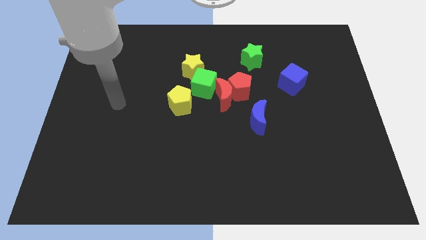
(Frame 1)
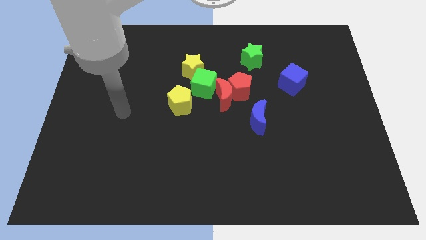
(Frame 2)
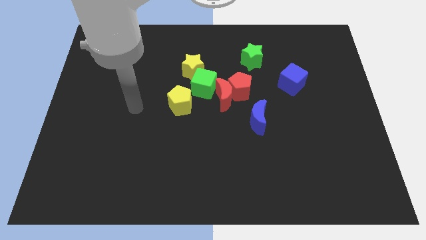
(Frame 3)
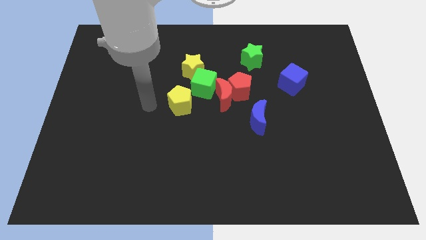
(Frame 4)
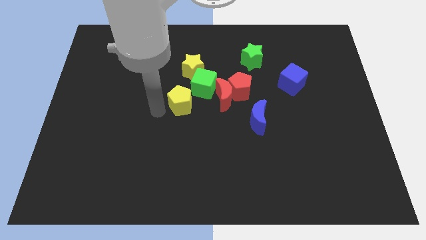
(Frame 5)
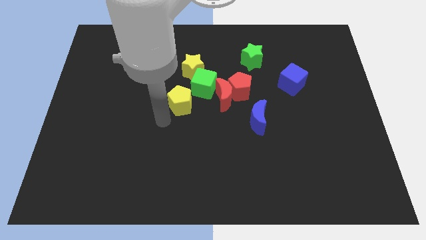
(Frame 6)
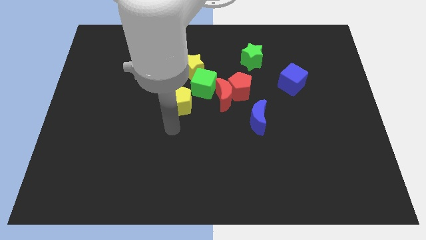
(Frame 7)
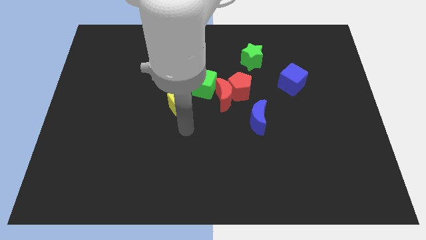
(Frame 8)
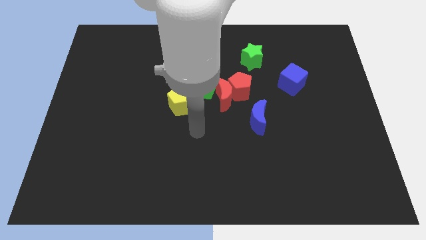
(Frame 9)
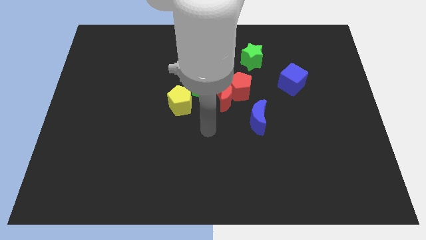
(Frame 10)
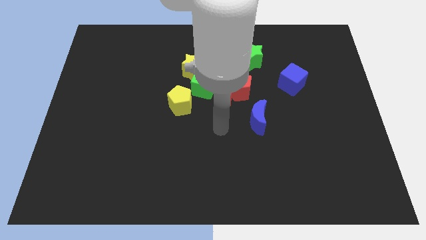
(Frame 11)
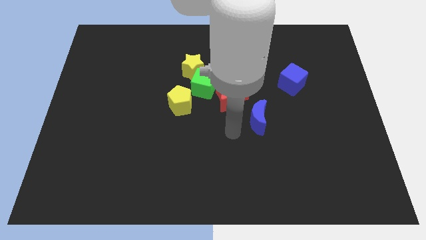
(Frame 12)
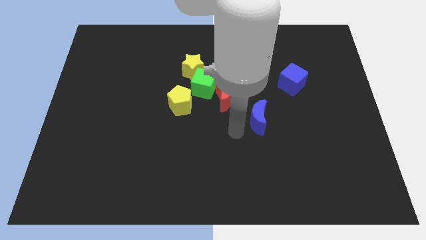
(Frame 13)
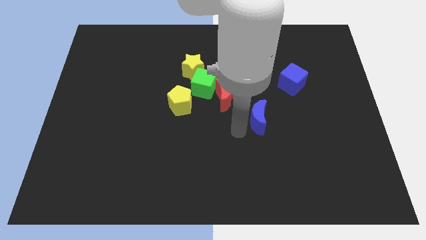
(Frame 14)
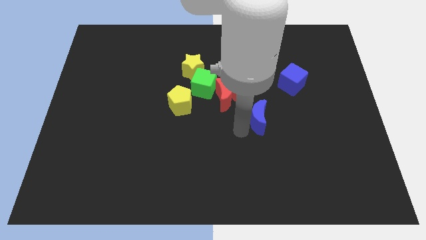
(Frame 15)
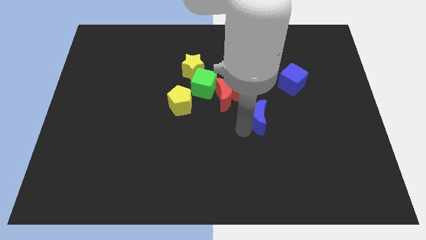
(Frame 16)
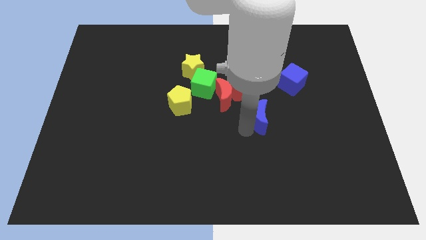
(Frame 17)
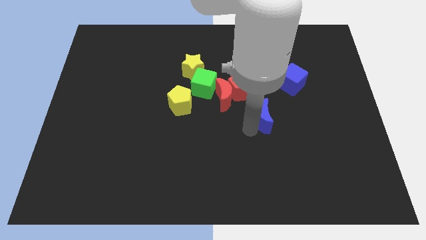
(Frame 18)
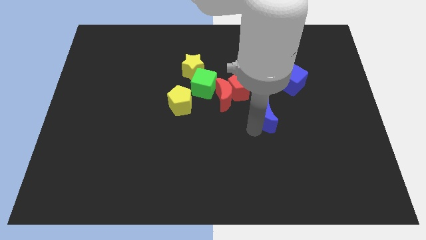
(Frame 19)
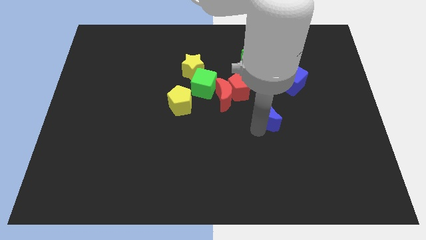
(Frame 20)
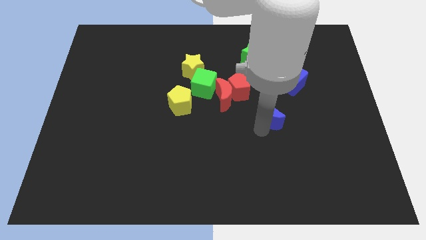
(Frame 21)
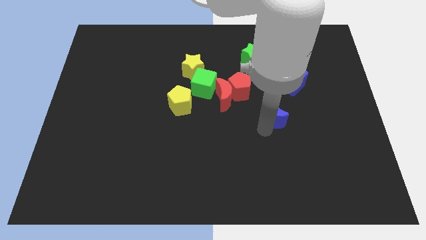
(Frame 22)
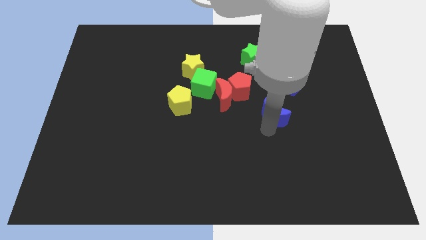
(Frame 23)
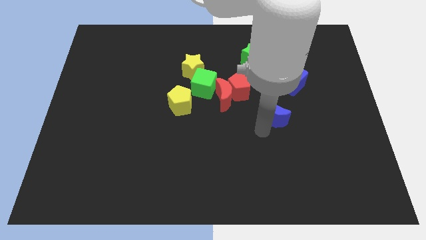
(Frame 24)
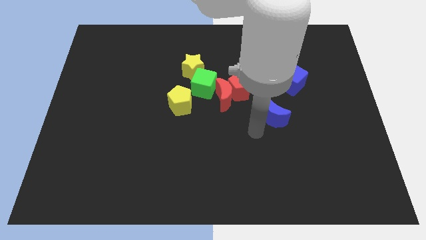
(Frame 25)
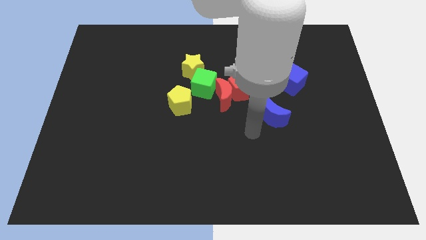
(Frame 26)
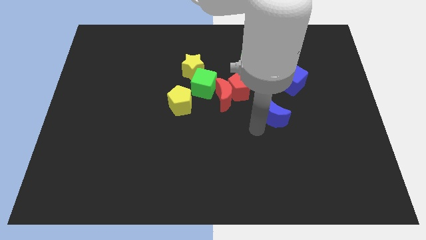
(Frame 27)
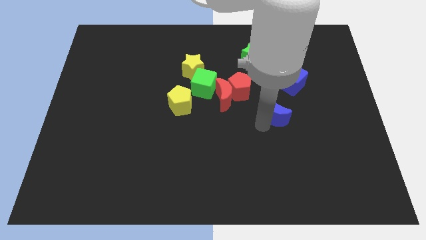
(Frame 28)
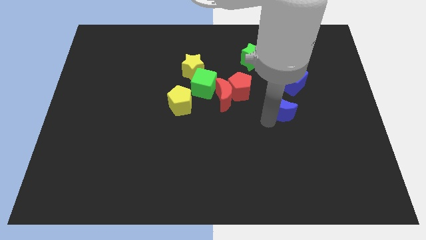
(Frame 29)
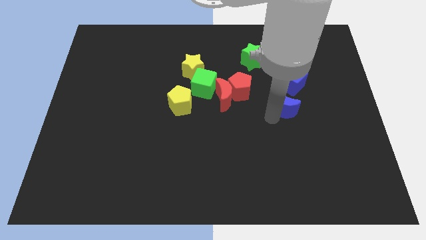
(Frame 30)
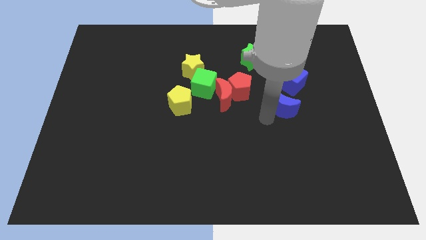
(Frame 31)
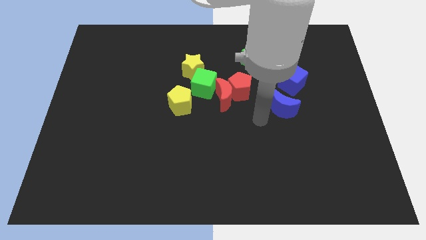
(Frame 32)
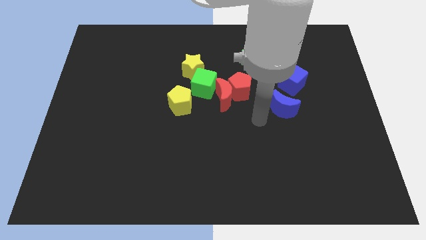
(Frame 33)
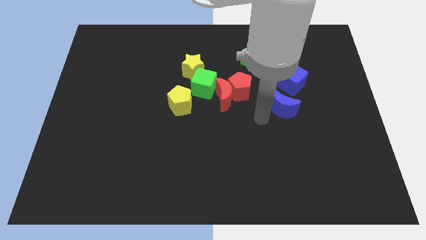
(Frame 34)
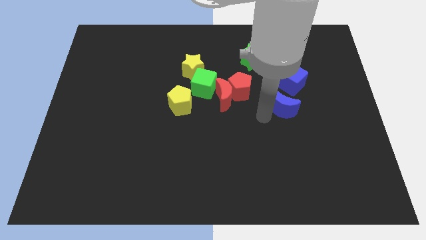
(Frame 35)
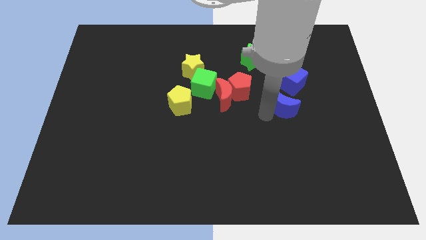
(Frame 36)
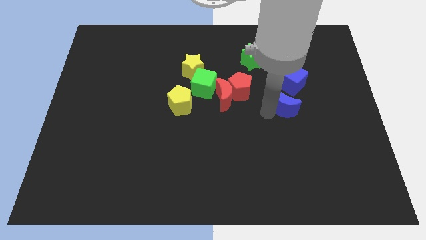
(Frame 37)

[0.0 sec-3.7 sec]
push the blue moon a little bit up and right

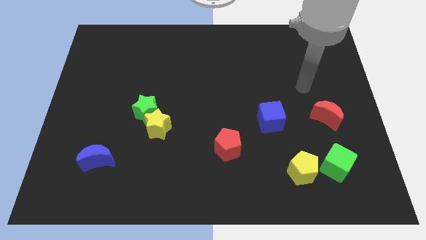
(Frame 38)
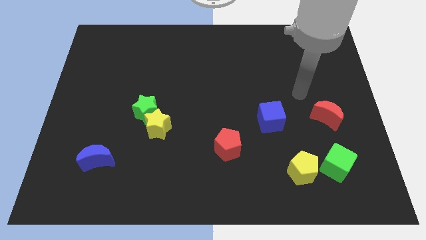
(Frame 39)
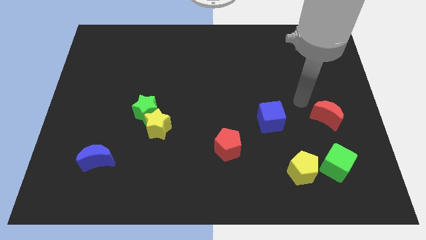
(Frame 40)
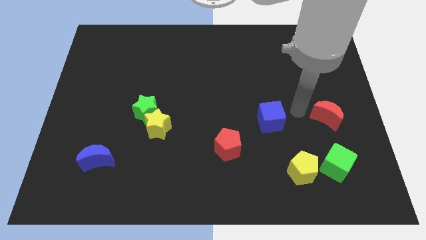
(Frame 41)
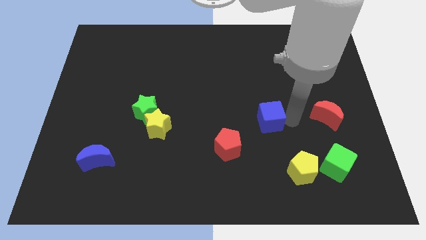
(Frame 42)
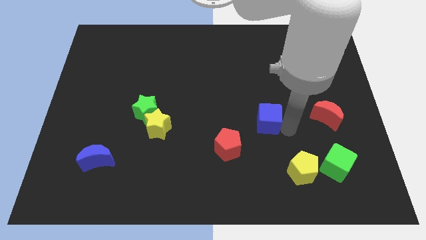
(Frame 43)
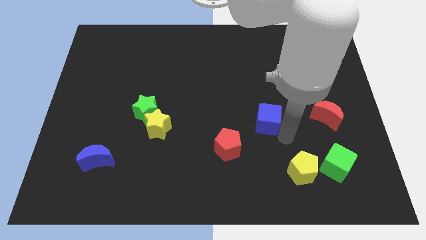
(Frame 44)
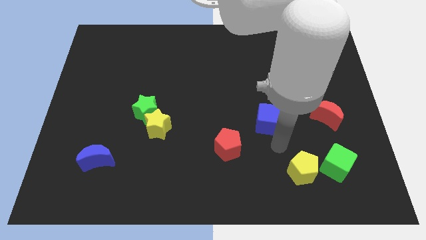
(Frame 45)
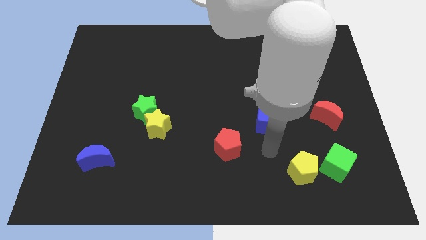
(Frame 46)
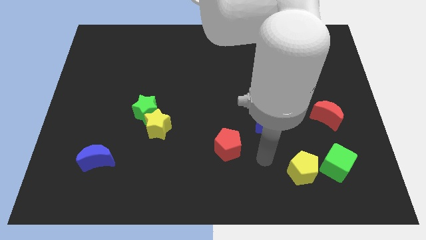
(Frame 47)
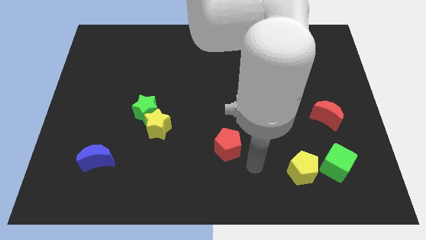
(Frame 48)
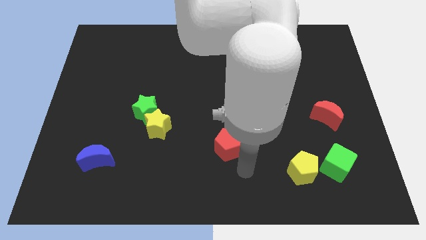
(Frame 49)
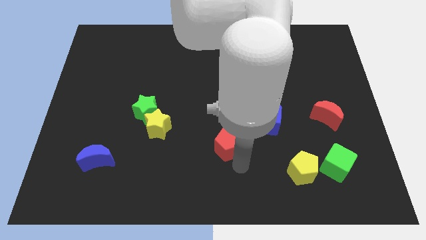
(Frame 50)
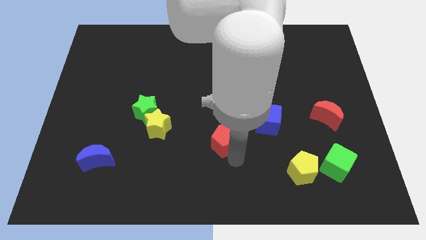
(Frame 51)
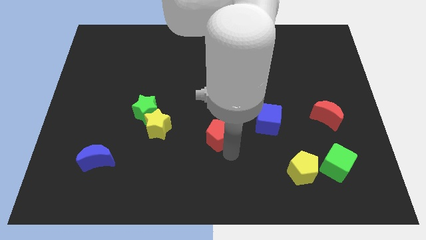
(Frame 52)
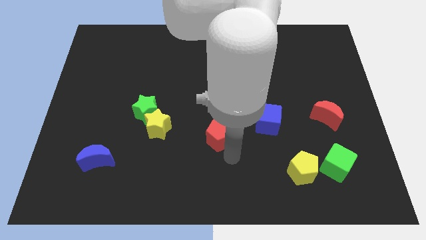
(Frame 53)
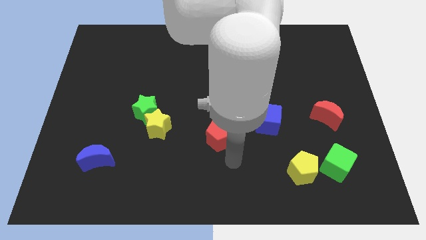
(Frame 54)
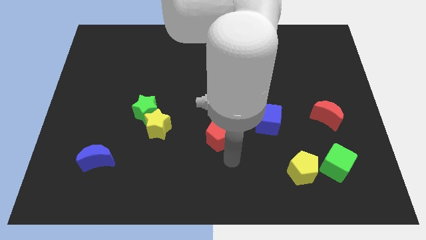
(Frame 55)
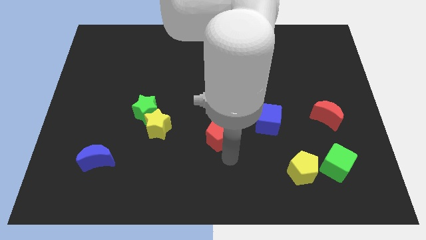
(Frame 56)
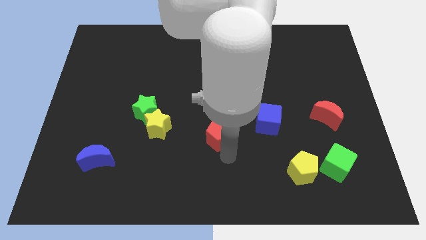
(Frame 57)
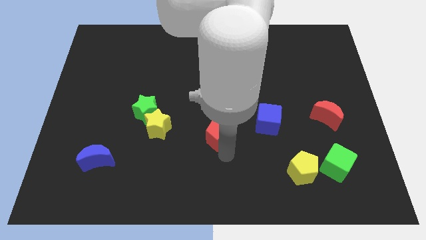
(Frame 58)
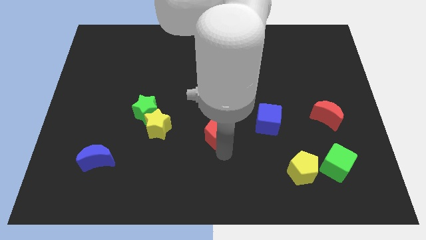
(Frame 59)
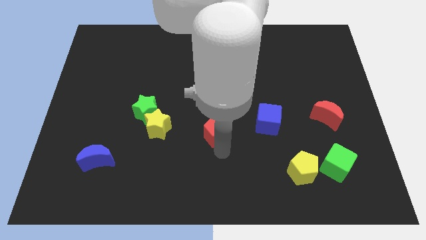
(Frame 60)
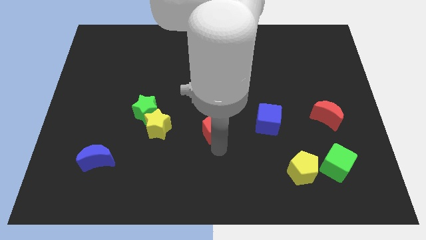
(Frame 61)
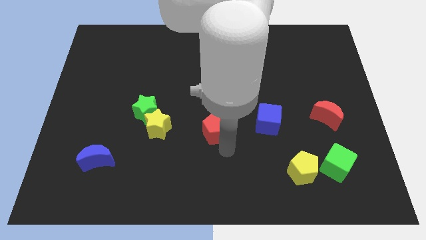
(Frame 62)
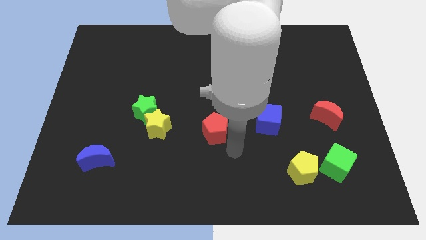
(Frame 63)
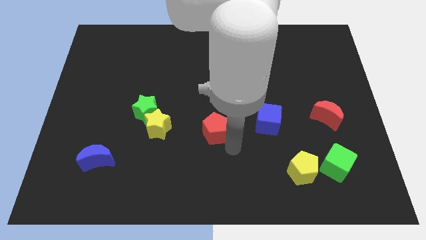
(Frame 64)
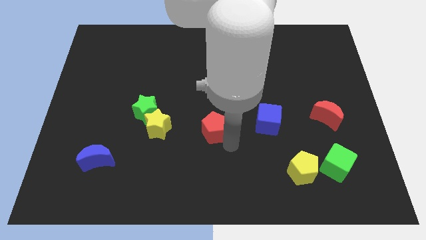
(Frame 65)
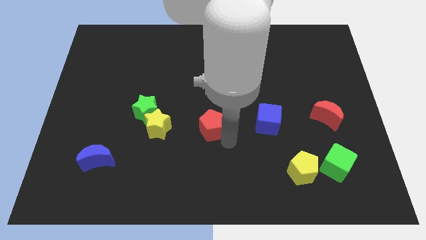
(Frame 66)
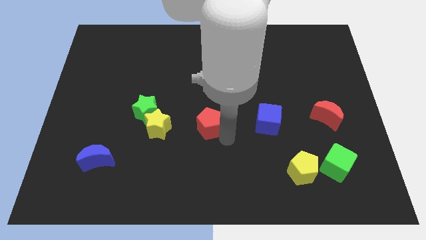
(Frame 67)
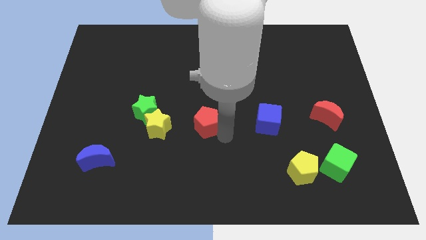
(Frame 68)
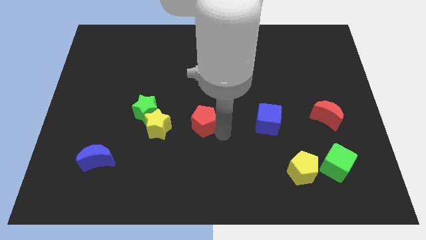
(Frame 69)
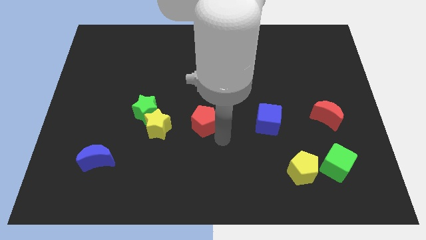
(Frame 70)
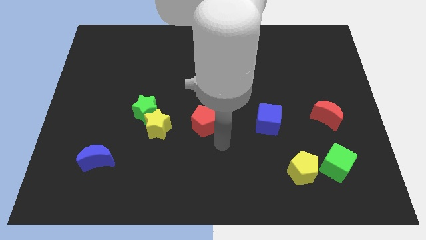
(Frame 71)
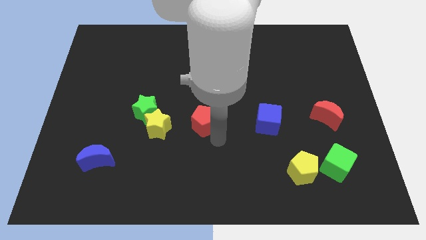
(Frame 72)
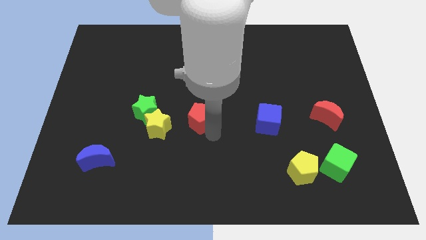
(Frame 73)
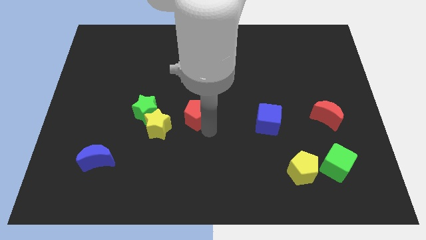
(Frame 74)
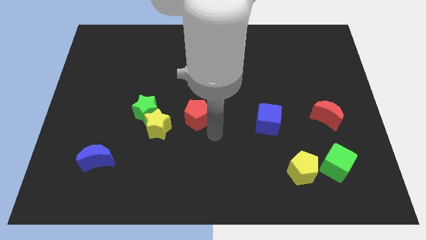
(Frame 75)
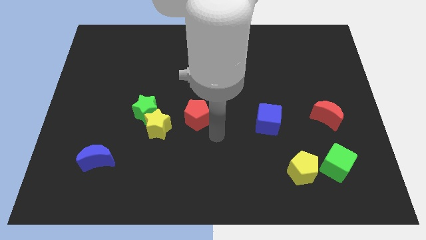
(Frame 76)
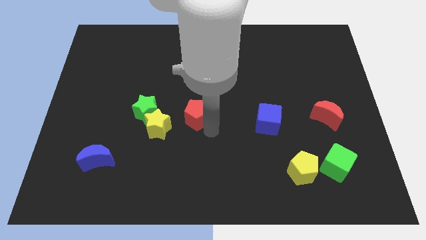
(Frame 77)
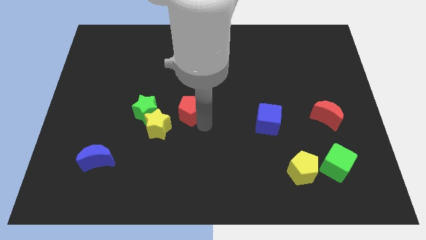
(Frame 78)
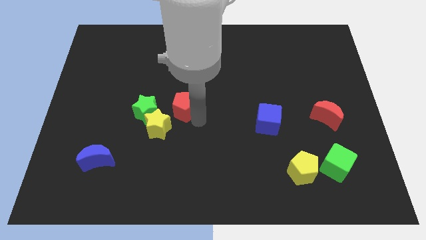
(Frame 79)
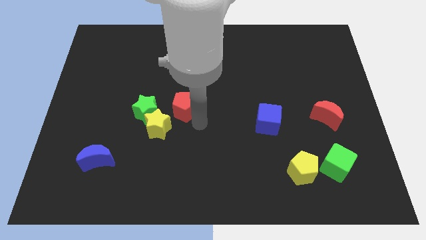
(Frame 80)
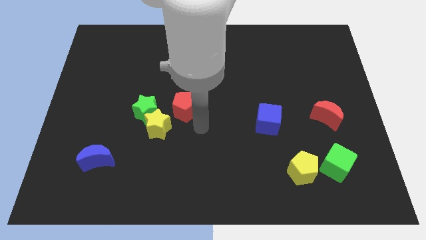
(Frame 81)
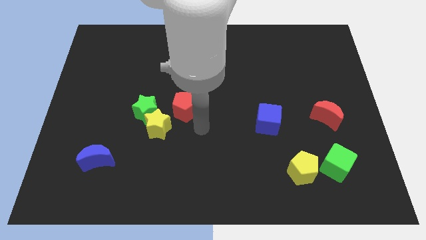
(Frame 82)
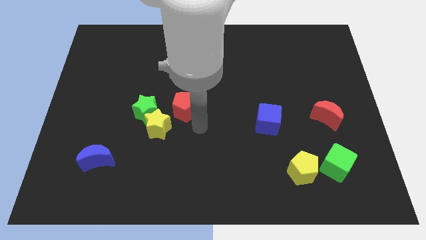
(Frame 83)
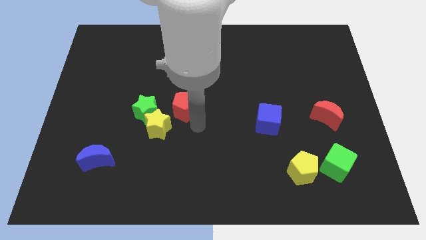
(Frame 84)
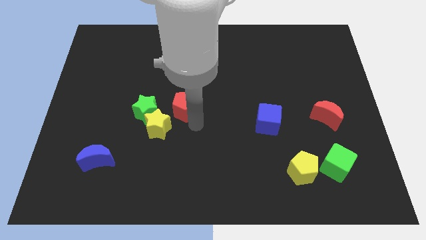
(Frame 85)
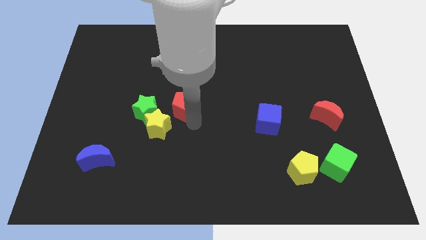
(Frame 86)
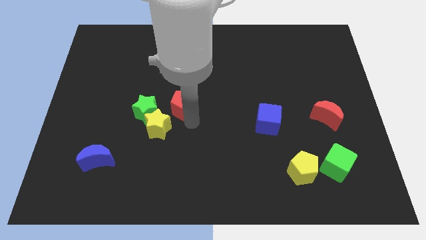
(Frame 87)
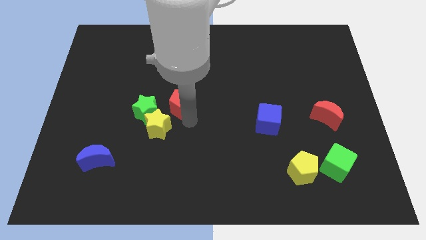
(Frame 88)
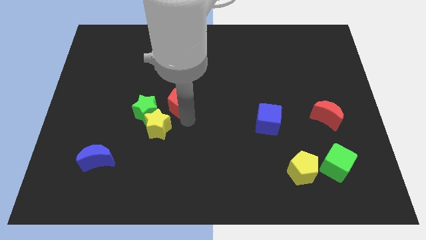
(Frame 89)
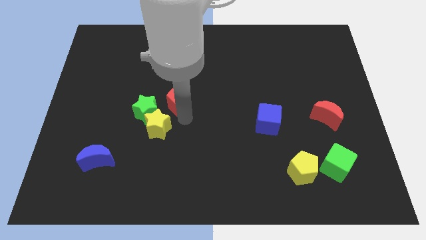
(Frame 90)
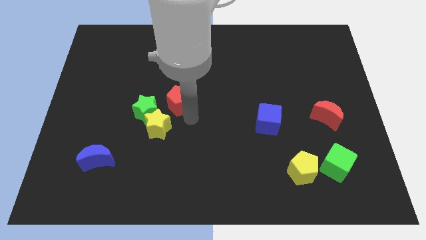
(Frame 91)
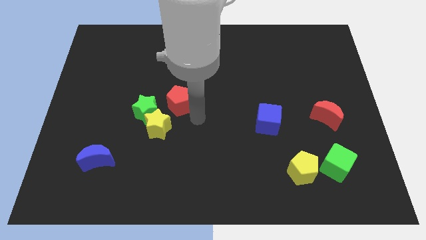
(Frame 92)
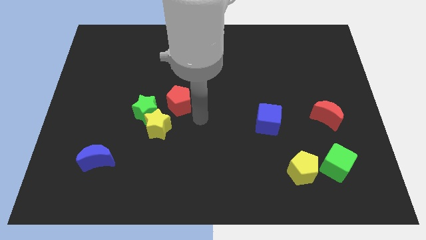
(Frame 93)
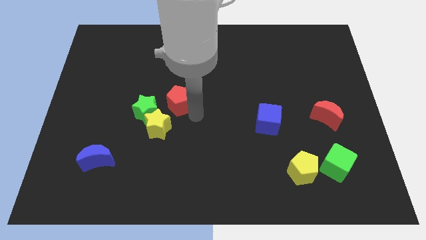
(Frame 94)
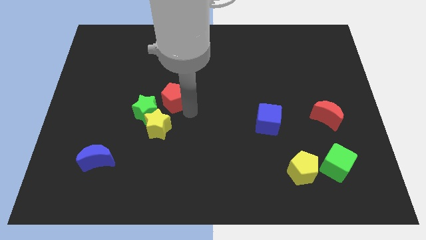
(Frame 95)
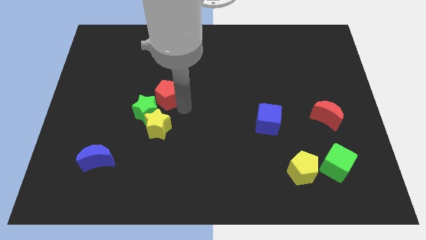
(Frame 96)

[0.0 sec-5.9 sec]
push the red pentagon upwards and to the left
